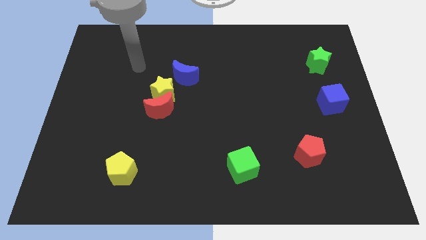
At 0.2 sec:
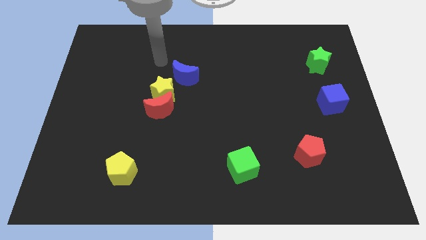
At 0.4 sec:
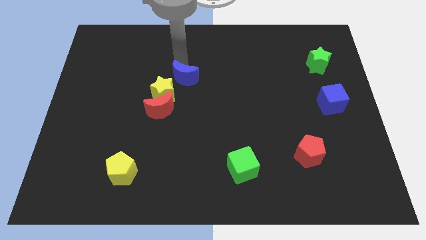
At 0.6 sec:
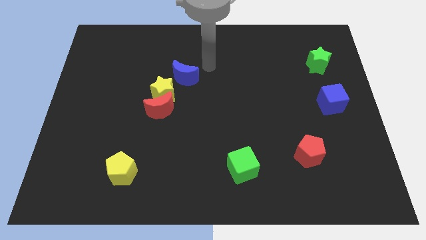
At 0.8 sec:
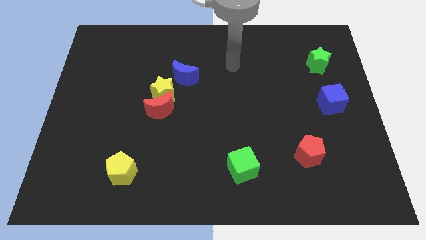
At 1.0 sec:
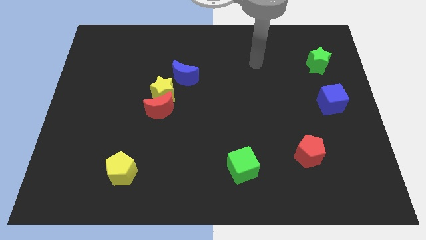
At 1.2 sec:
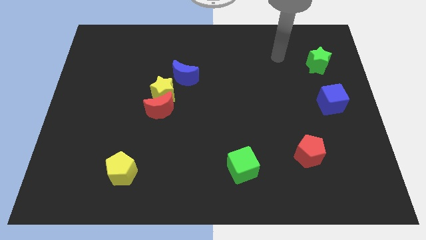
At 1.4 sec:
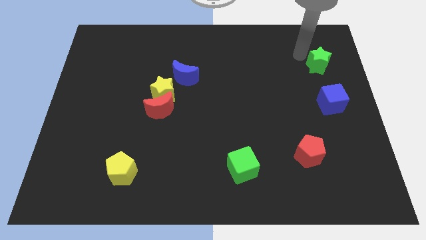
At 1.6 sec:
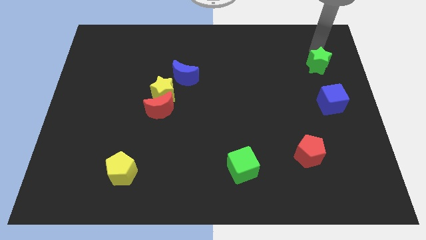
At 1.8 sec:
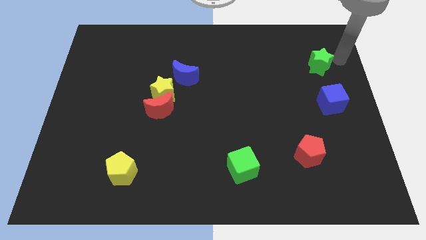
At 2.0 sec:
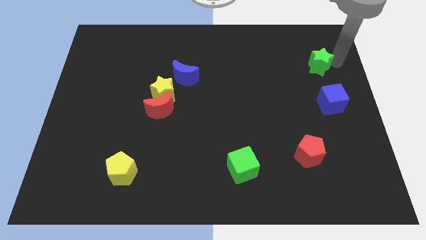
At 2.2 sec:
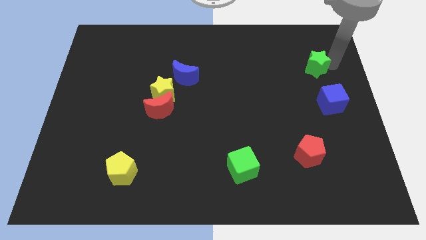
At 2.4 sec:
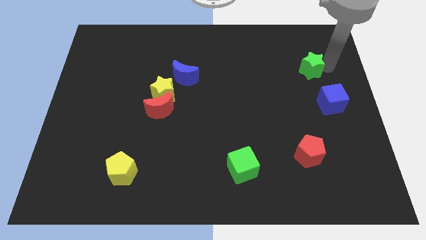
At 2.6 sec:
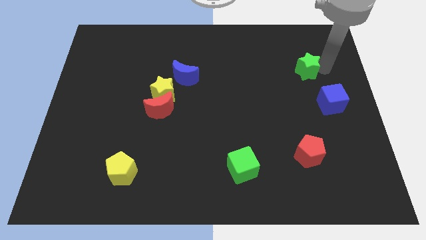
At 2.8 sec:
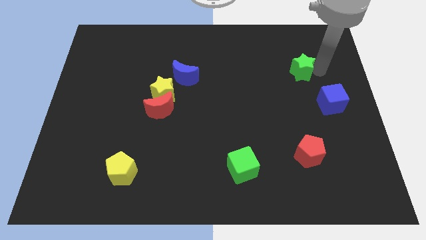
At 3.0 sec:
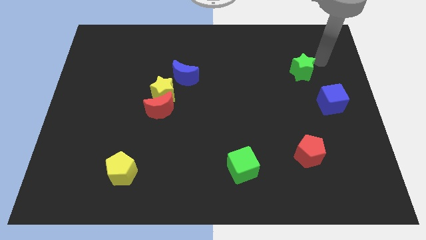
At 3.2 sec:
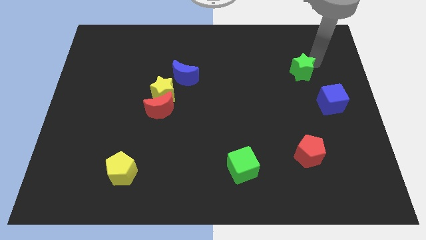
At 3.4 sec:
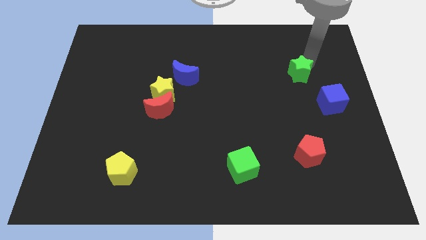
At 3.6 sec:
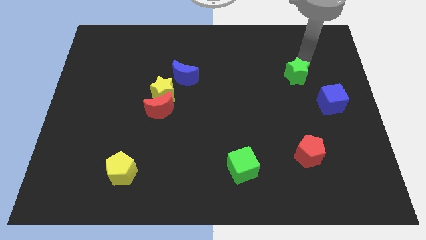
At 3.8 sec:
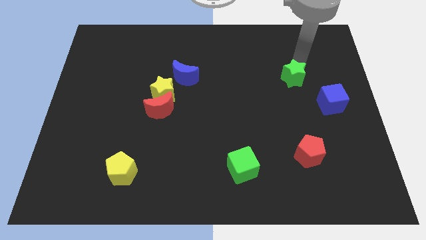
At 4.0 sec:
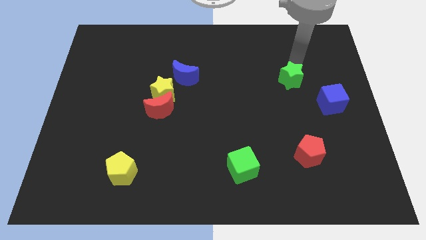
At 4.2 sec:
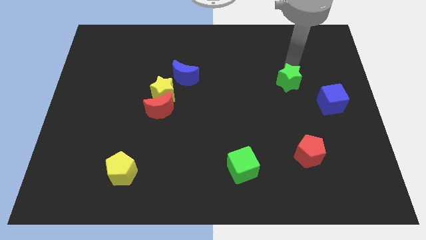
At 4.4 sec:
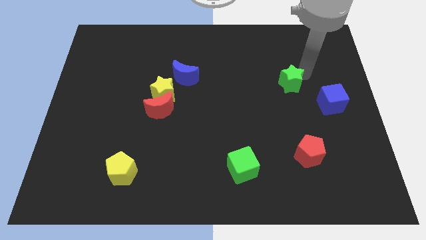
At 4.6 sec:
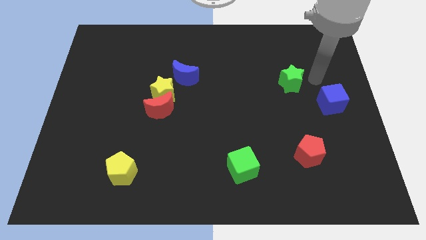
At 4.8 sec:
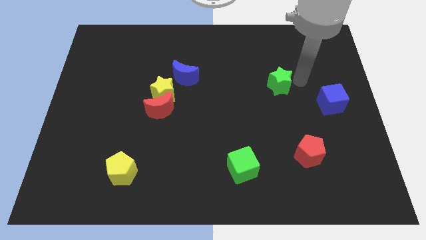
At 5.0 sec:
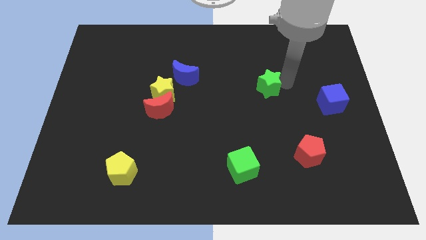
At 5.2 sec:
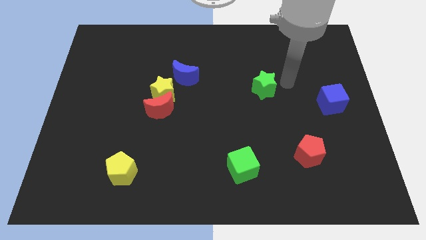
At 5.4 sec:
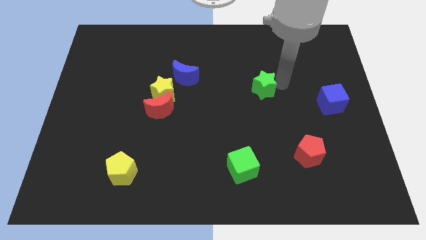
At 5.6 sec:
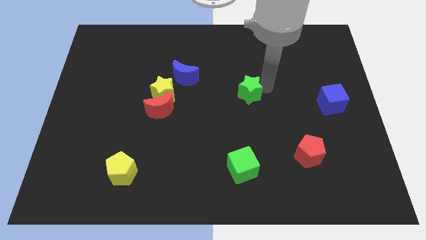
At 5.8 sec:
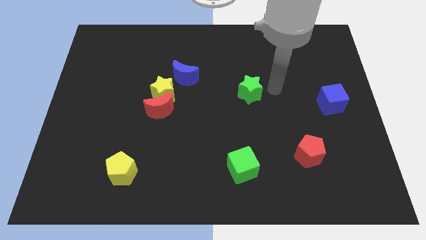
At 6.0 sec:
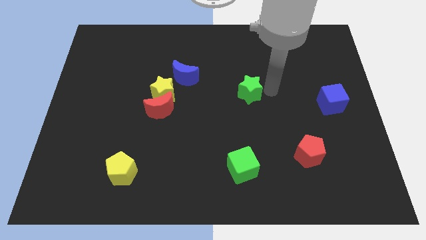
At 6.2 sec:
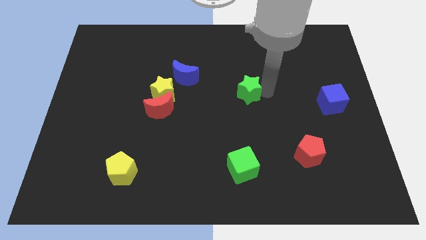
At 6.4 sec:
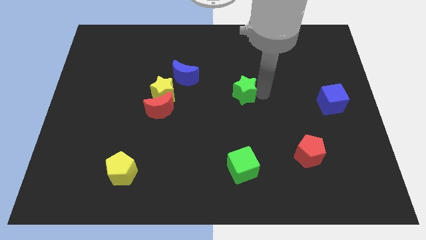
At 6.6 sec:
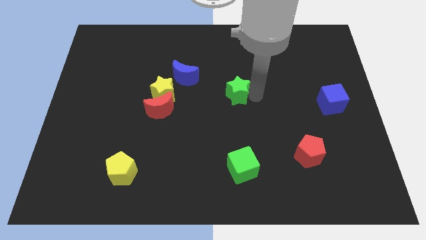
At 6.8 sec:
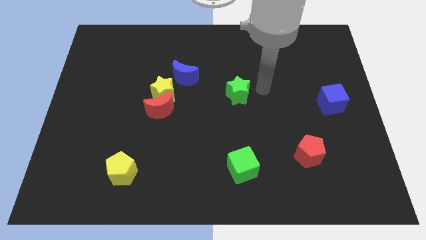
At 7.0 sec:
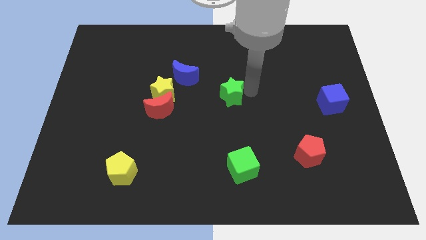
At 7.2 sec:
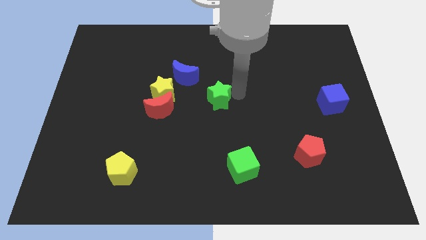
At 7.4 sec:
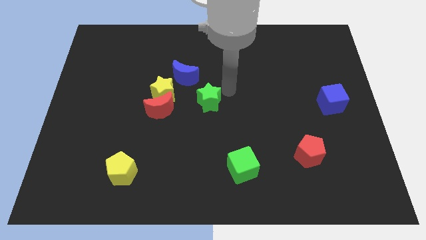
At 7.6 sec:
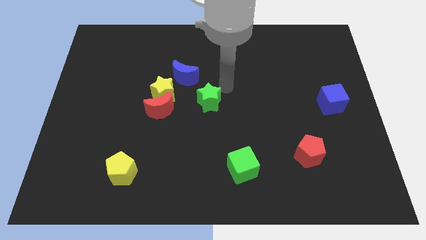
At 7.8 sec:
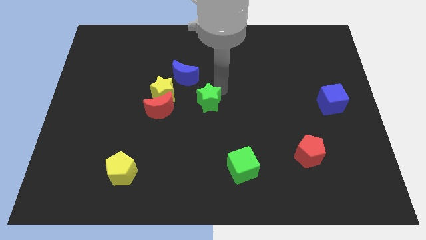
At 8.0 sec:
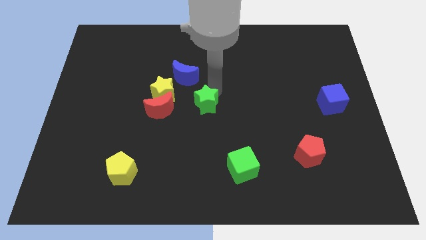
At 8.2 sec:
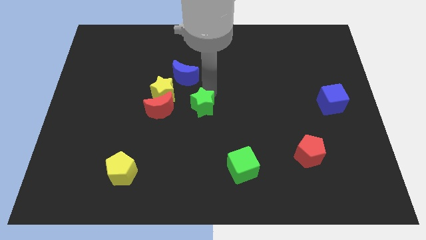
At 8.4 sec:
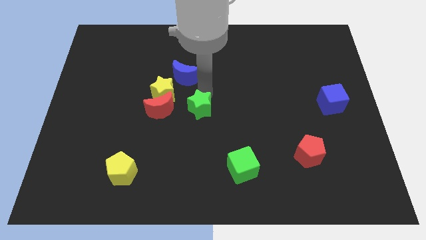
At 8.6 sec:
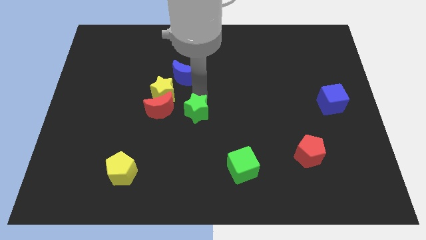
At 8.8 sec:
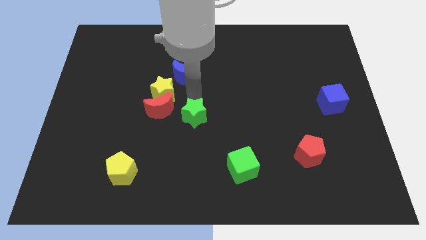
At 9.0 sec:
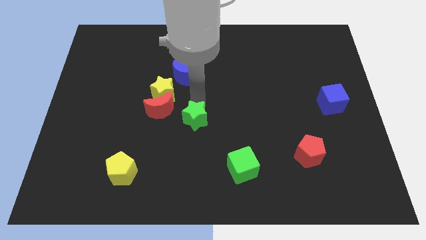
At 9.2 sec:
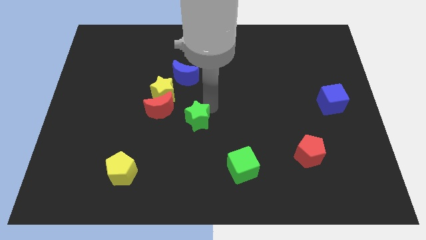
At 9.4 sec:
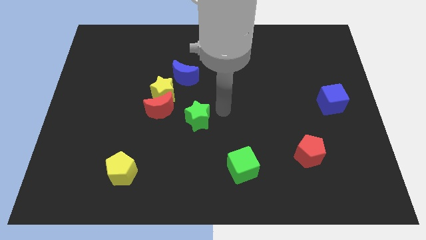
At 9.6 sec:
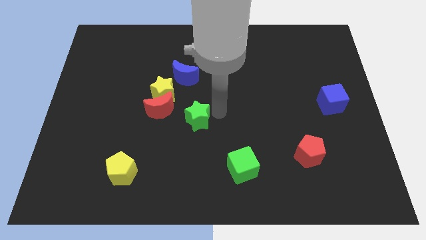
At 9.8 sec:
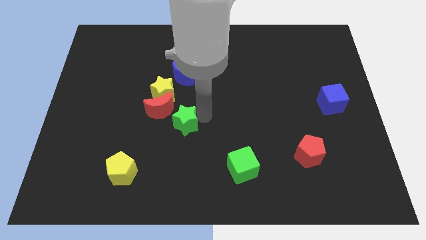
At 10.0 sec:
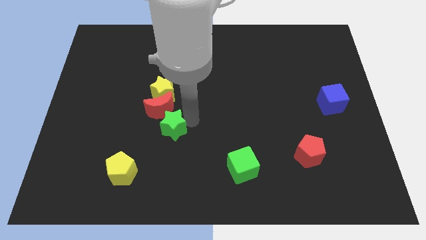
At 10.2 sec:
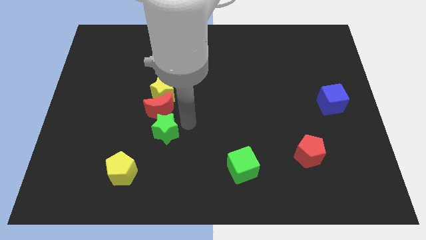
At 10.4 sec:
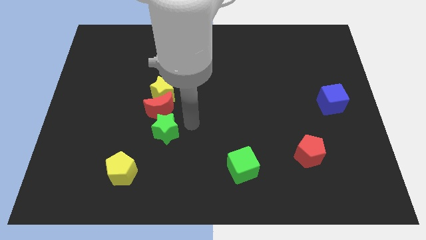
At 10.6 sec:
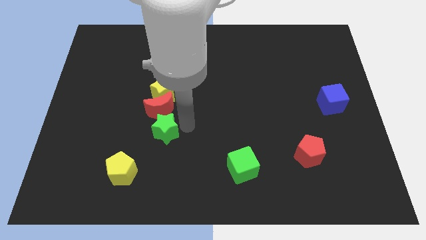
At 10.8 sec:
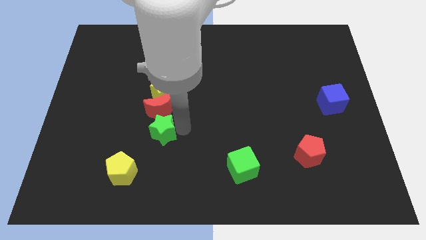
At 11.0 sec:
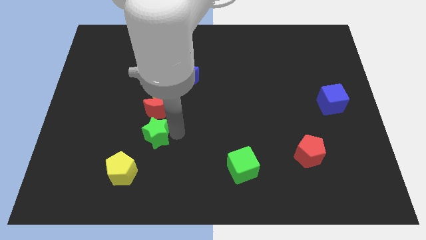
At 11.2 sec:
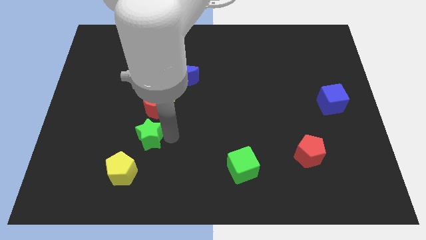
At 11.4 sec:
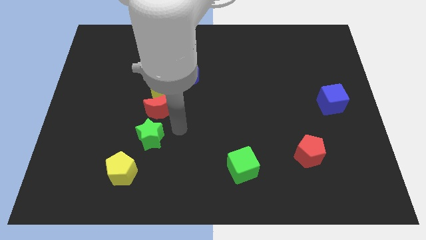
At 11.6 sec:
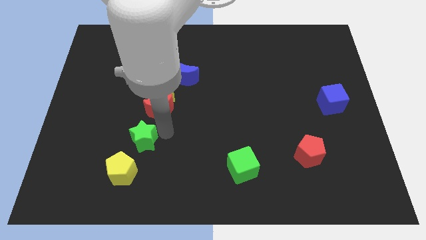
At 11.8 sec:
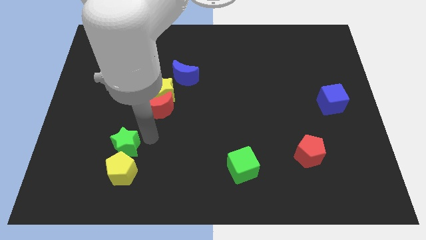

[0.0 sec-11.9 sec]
slide the green star diagonally up and to the left of the yellow pentagon

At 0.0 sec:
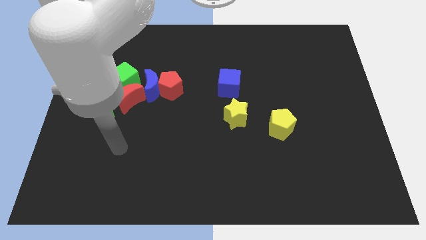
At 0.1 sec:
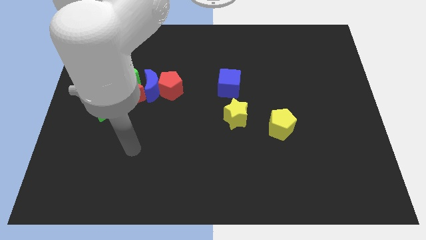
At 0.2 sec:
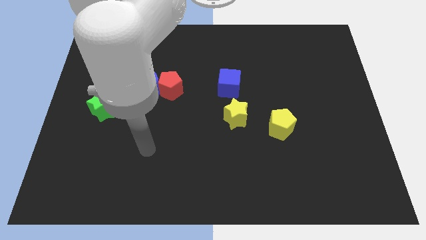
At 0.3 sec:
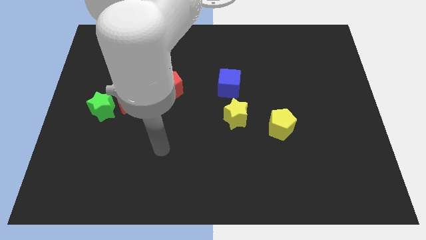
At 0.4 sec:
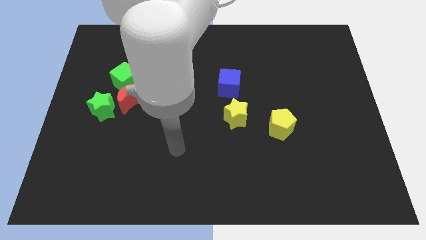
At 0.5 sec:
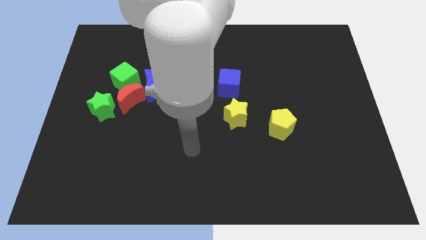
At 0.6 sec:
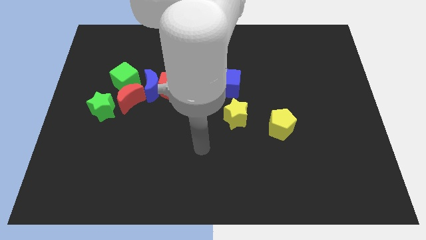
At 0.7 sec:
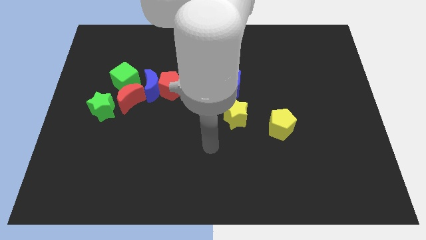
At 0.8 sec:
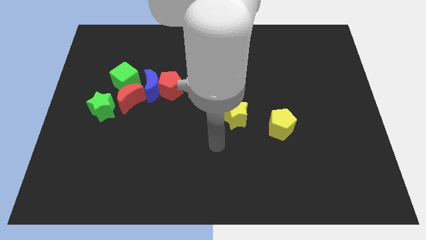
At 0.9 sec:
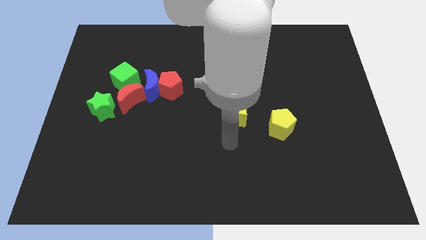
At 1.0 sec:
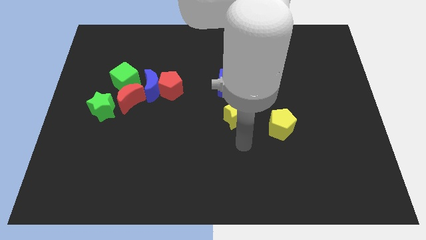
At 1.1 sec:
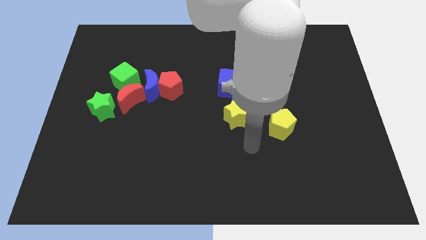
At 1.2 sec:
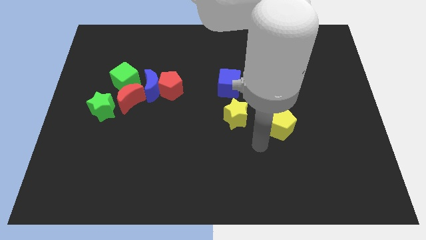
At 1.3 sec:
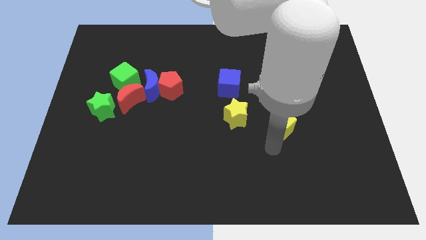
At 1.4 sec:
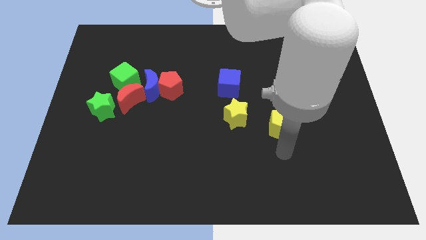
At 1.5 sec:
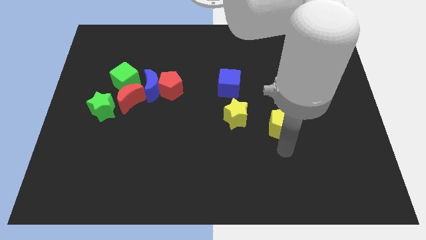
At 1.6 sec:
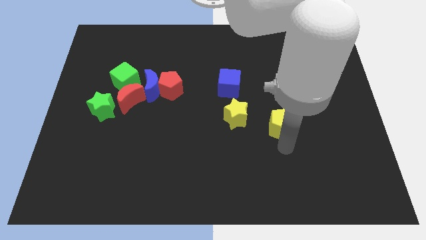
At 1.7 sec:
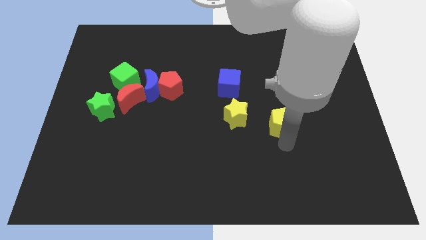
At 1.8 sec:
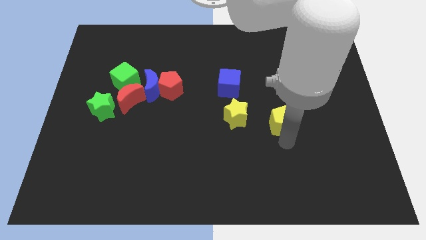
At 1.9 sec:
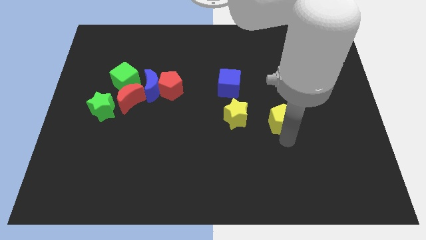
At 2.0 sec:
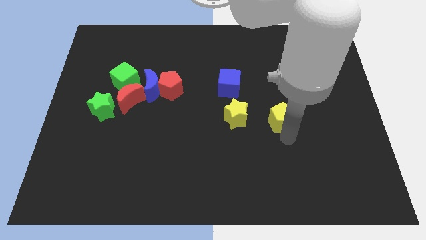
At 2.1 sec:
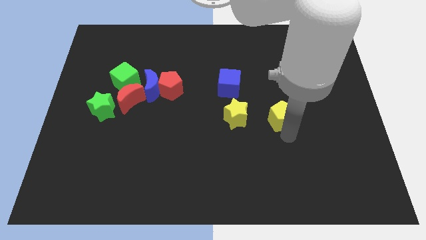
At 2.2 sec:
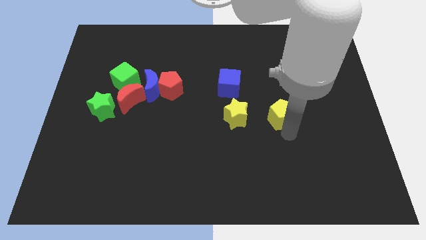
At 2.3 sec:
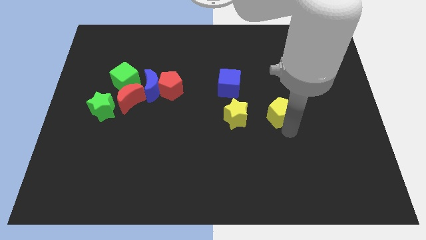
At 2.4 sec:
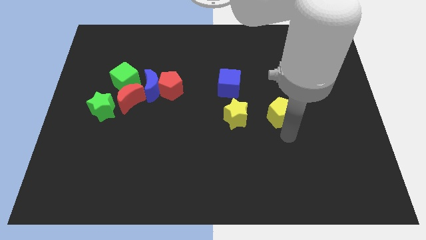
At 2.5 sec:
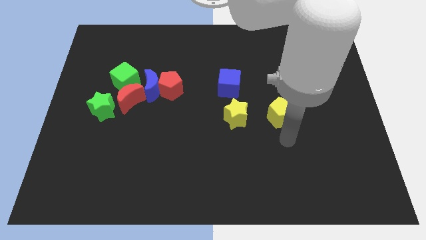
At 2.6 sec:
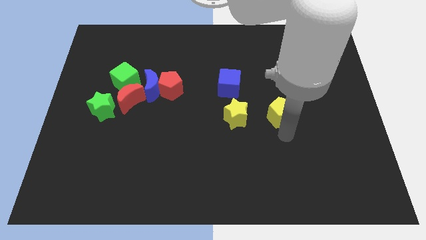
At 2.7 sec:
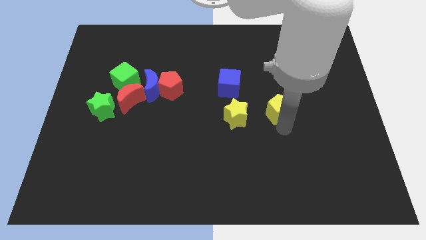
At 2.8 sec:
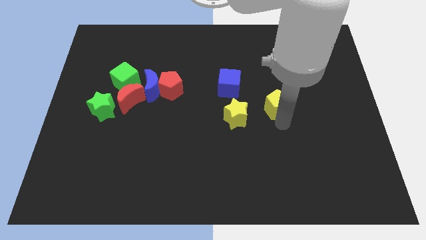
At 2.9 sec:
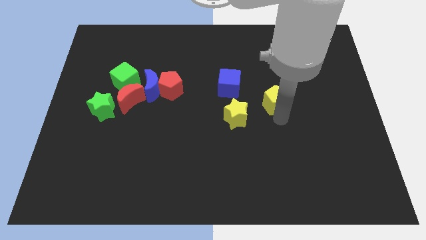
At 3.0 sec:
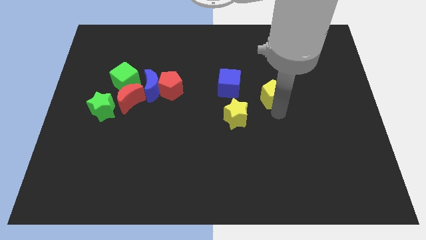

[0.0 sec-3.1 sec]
move the yellow pentagon to the right side of the blue cube

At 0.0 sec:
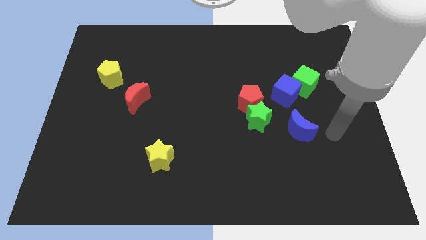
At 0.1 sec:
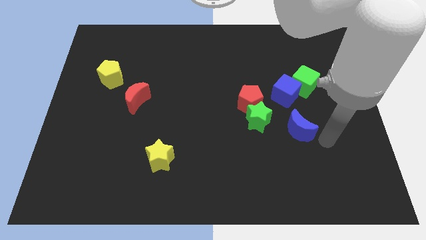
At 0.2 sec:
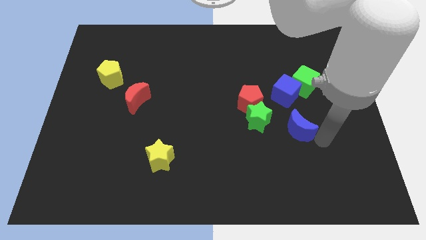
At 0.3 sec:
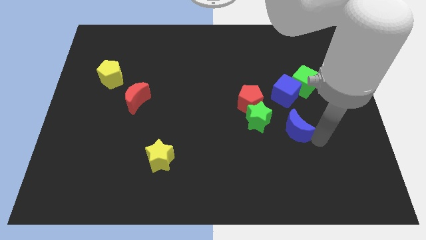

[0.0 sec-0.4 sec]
slide the blue moon diagonally down and to the right of the red pentagon
